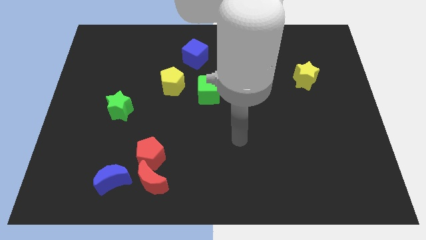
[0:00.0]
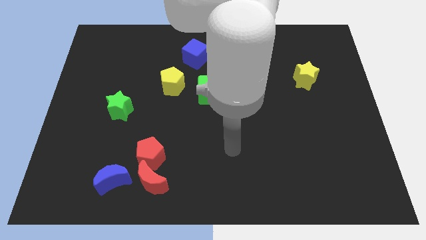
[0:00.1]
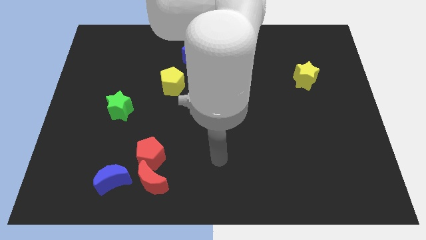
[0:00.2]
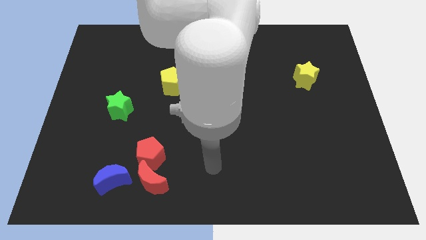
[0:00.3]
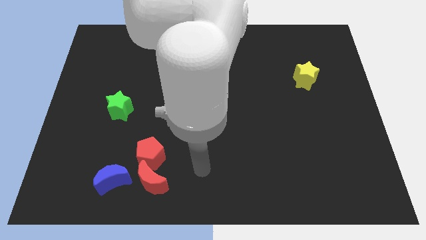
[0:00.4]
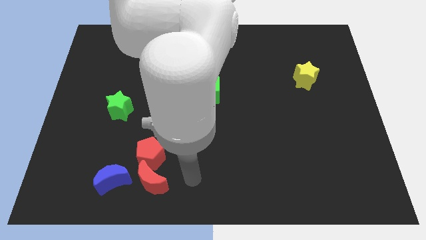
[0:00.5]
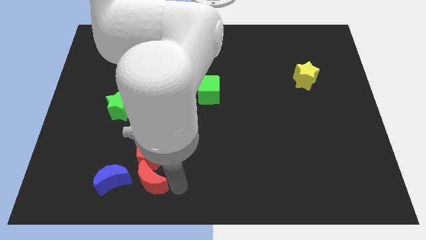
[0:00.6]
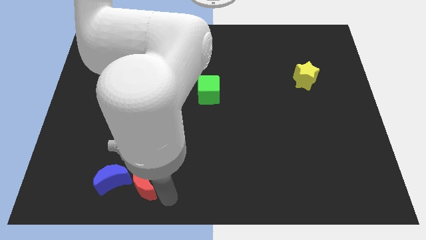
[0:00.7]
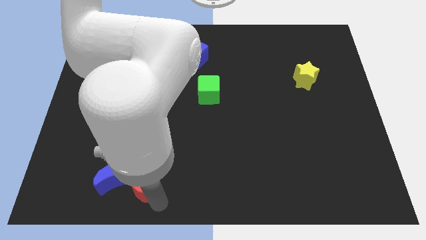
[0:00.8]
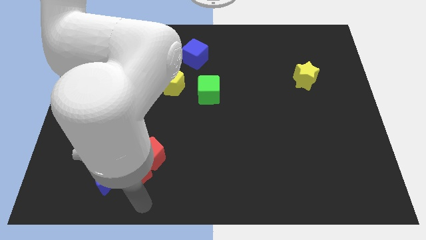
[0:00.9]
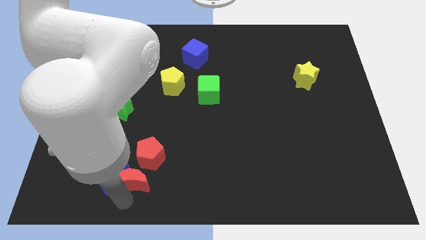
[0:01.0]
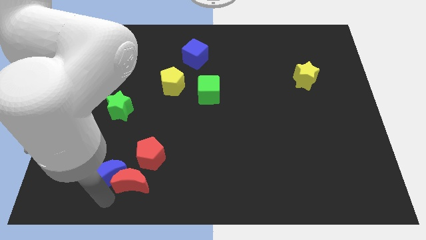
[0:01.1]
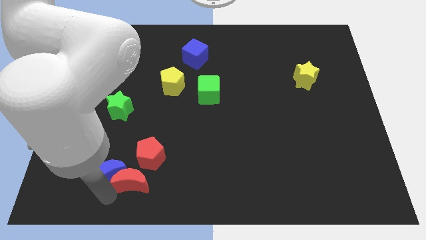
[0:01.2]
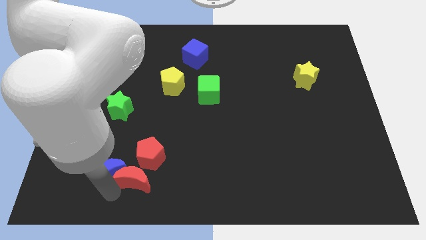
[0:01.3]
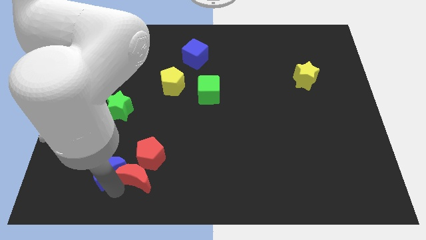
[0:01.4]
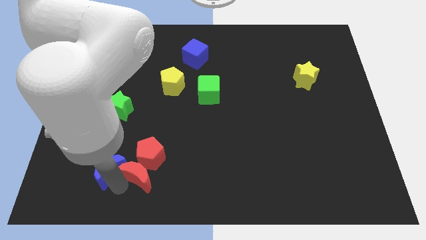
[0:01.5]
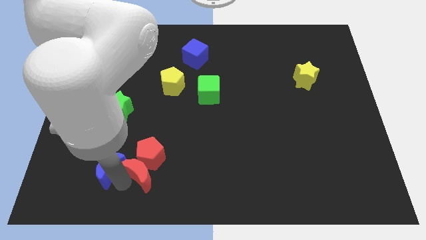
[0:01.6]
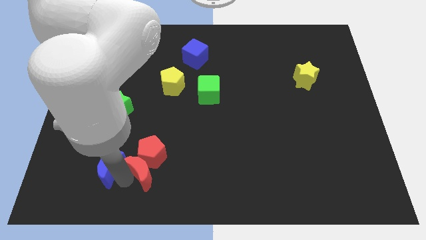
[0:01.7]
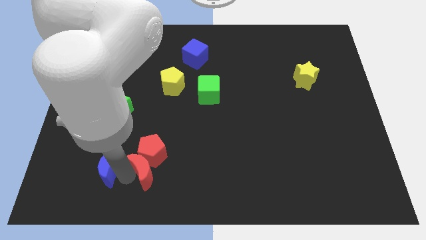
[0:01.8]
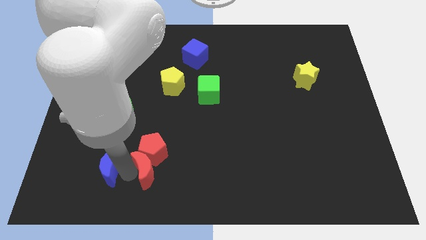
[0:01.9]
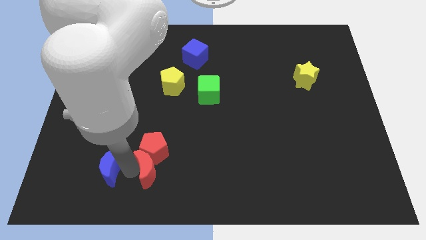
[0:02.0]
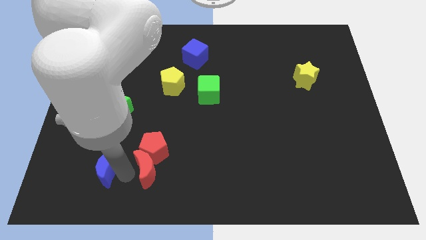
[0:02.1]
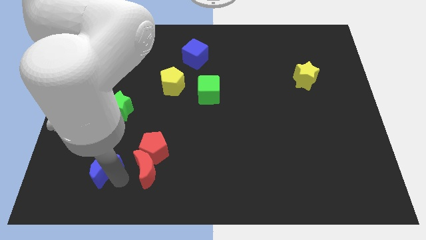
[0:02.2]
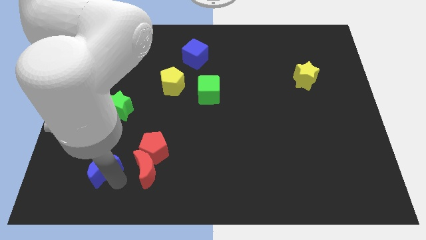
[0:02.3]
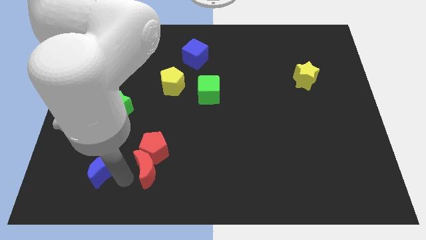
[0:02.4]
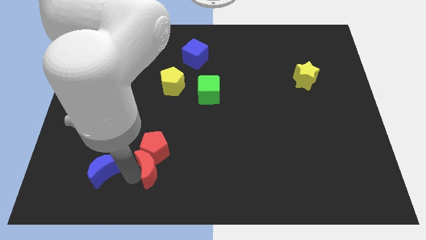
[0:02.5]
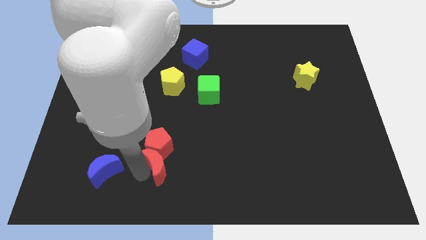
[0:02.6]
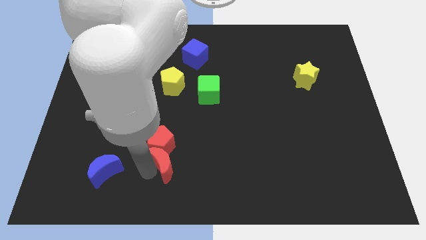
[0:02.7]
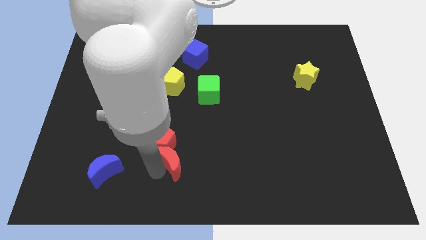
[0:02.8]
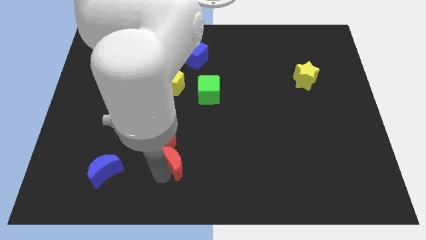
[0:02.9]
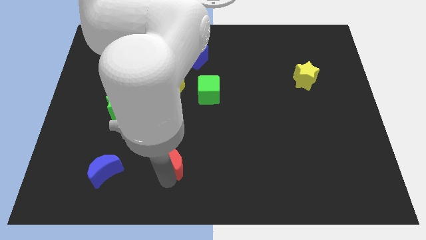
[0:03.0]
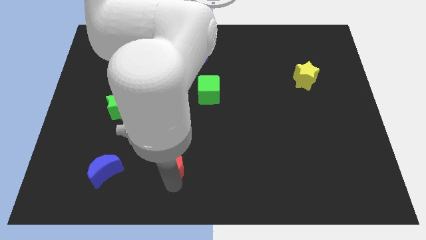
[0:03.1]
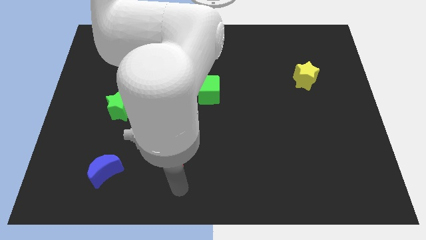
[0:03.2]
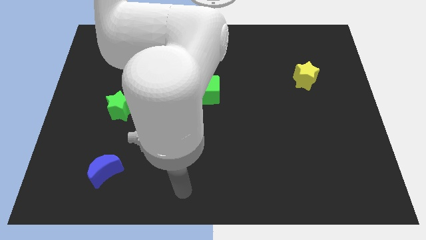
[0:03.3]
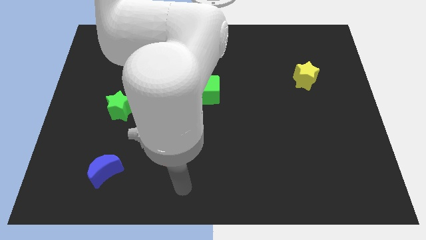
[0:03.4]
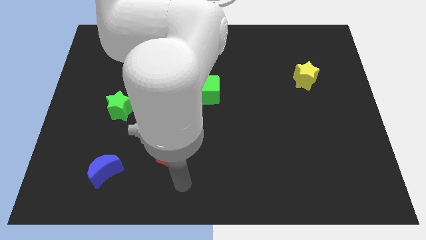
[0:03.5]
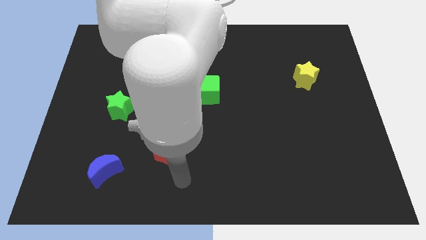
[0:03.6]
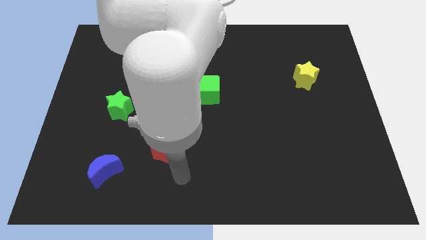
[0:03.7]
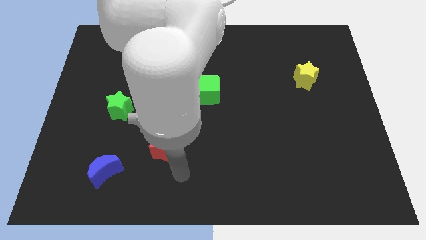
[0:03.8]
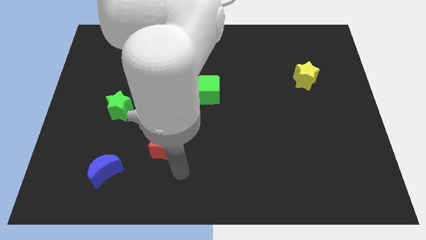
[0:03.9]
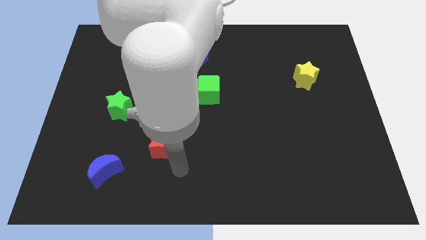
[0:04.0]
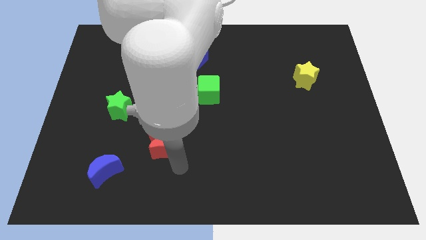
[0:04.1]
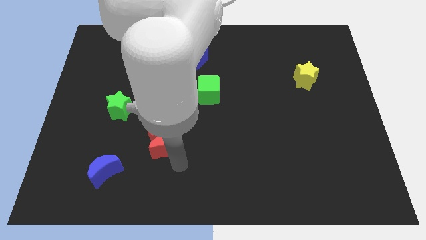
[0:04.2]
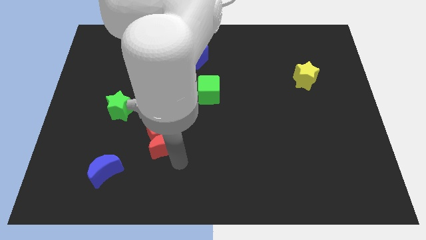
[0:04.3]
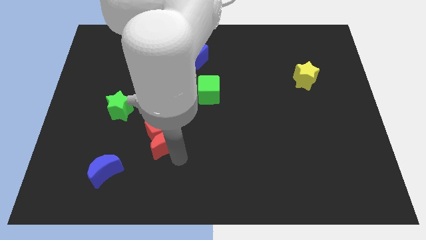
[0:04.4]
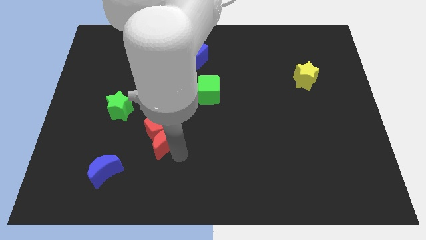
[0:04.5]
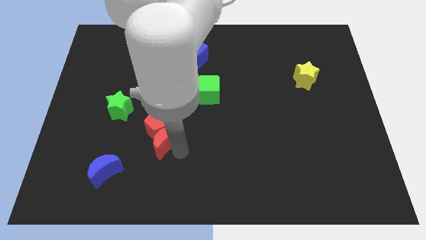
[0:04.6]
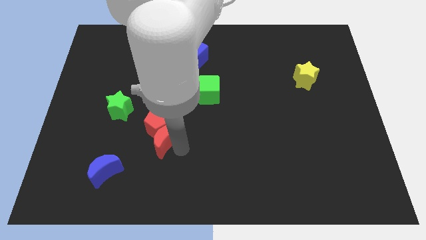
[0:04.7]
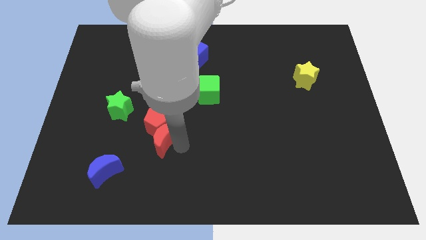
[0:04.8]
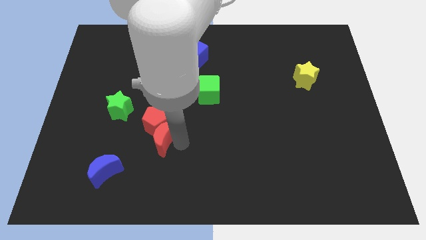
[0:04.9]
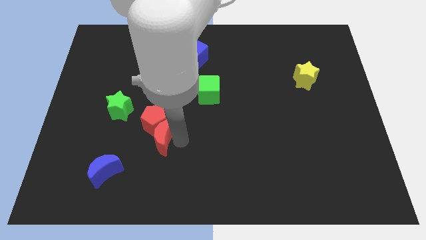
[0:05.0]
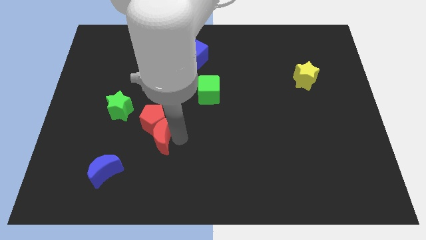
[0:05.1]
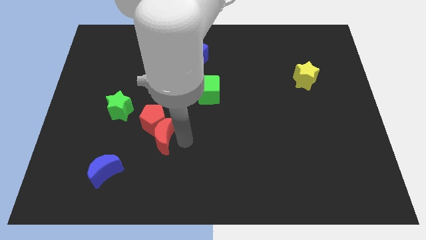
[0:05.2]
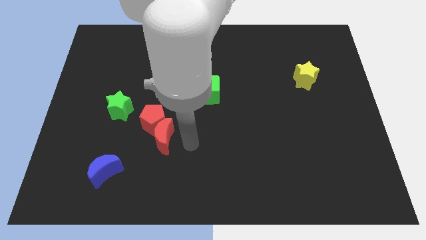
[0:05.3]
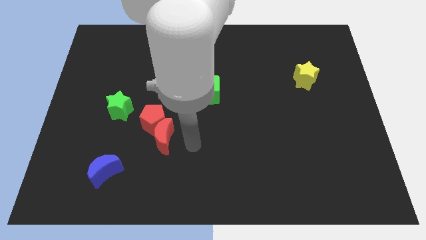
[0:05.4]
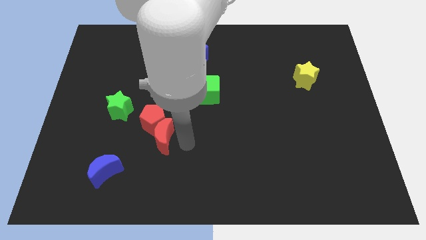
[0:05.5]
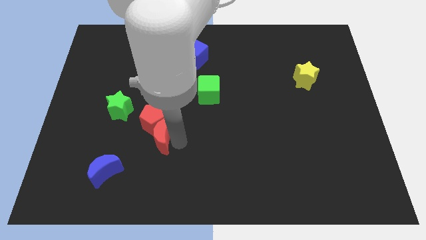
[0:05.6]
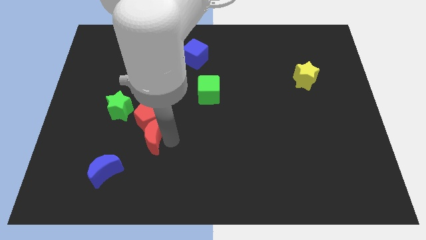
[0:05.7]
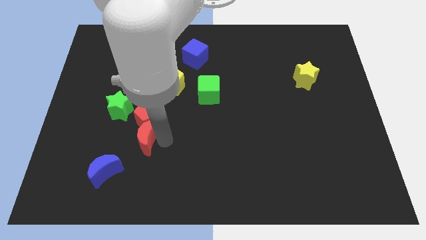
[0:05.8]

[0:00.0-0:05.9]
slightly slide the red moon diagonally upwards and to the left

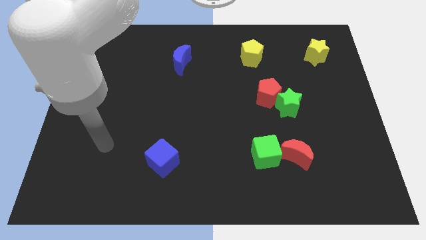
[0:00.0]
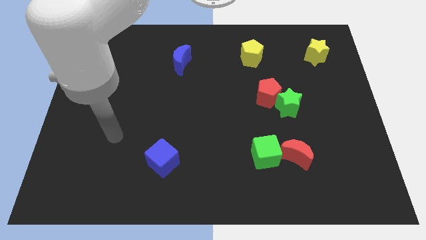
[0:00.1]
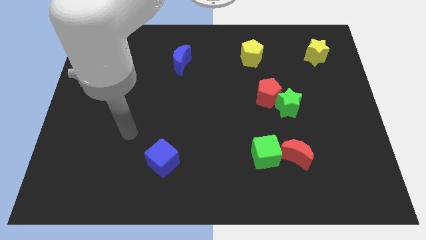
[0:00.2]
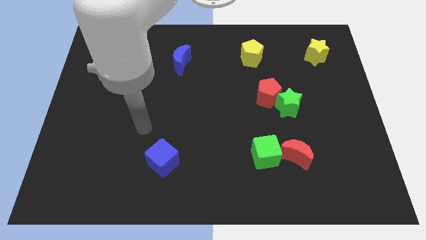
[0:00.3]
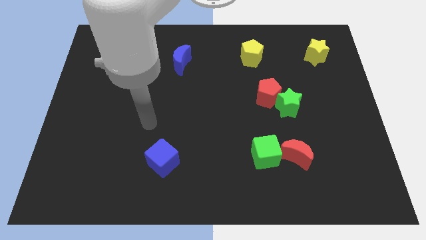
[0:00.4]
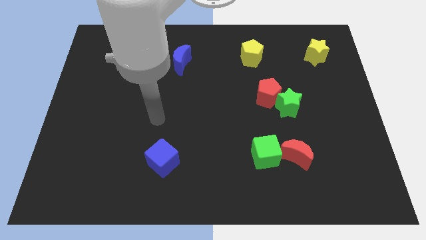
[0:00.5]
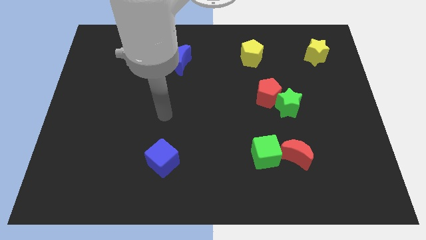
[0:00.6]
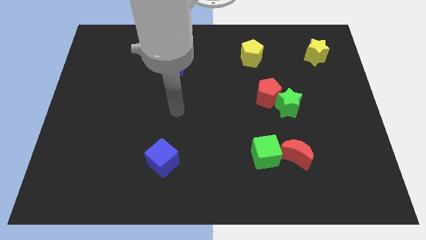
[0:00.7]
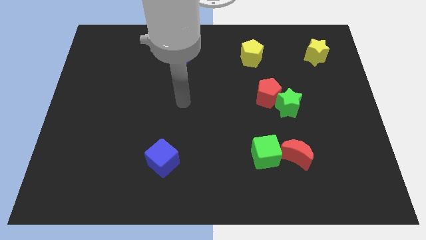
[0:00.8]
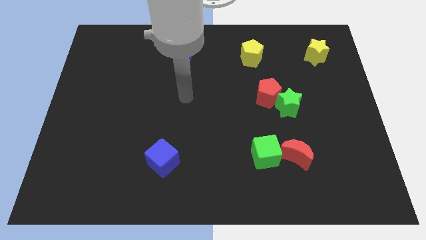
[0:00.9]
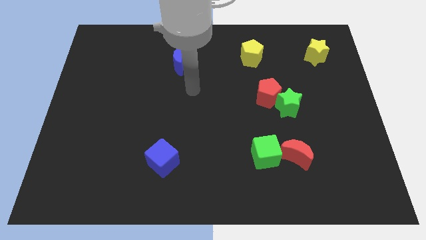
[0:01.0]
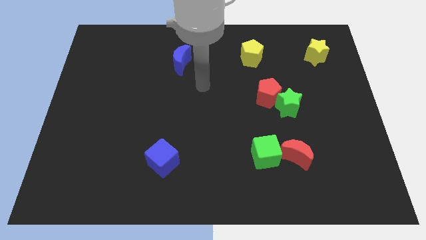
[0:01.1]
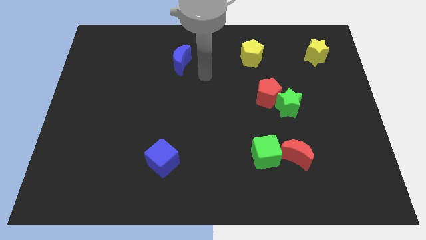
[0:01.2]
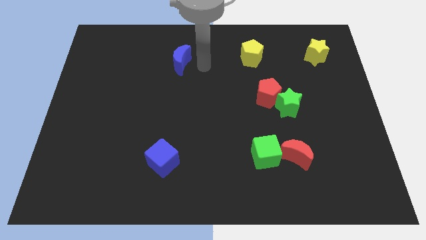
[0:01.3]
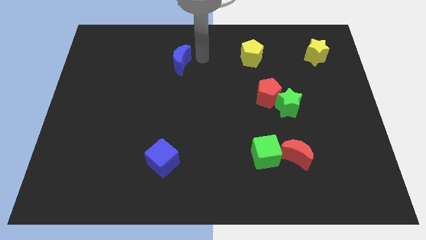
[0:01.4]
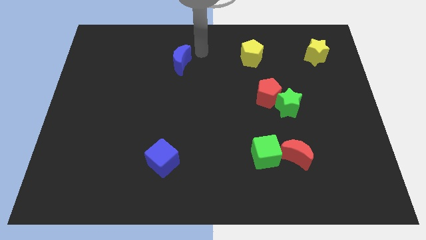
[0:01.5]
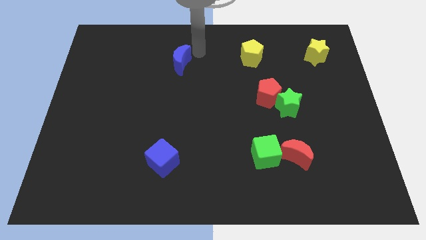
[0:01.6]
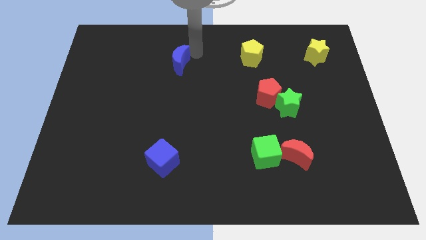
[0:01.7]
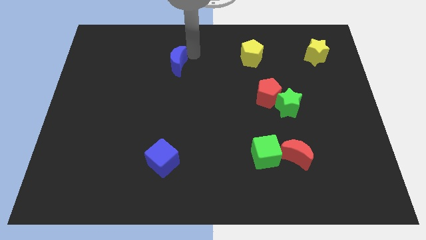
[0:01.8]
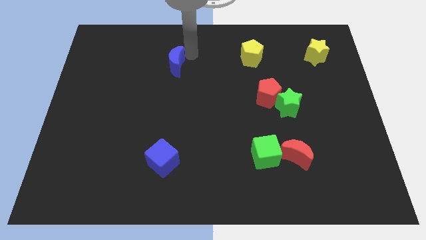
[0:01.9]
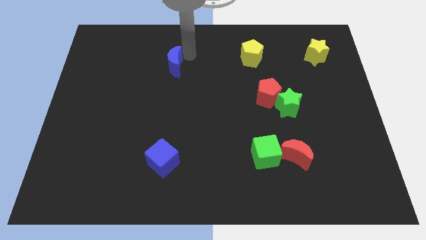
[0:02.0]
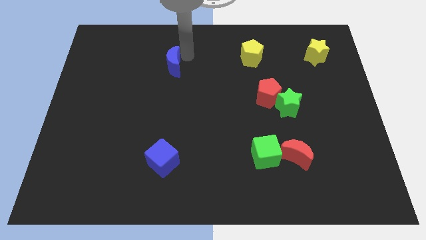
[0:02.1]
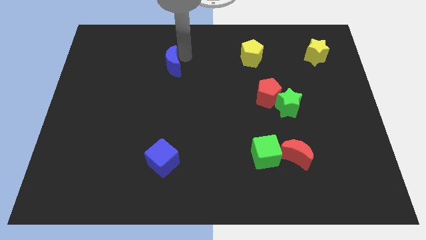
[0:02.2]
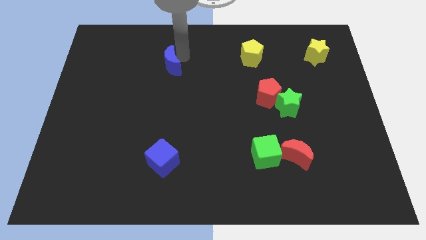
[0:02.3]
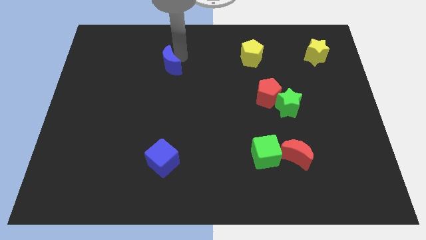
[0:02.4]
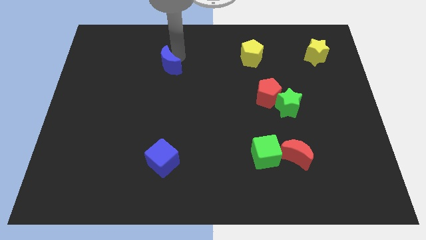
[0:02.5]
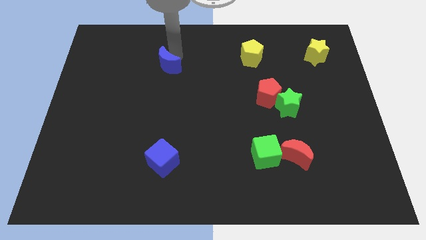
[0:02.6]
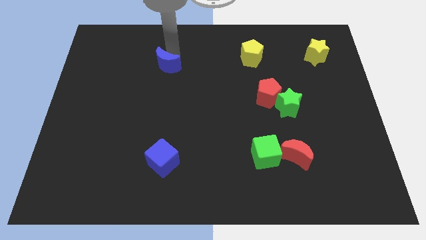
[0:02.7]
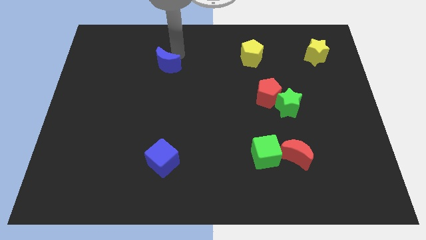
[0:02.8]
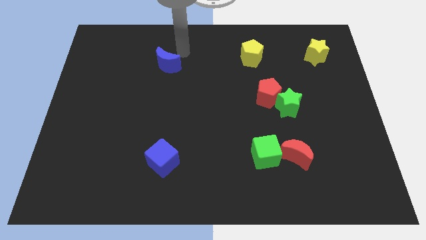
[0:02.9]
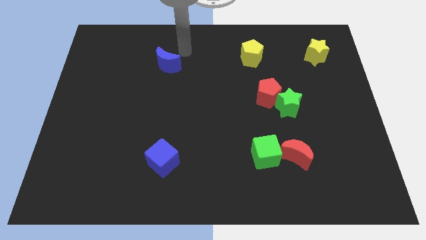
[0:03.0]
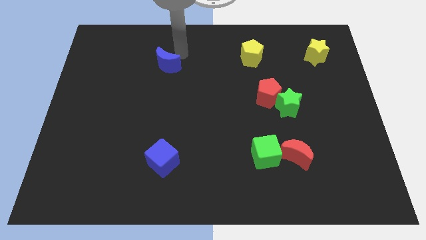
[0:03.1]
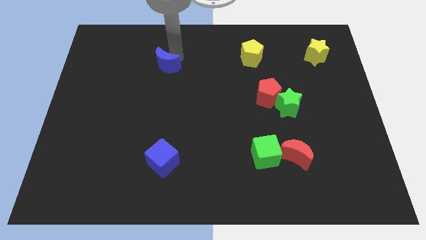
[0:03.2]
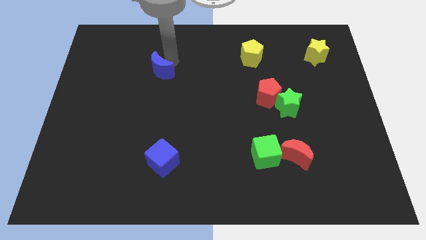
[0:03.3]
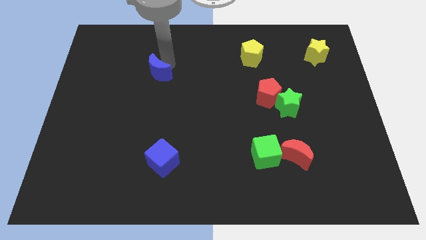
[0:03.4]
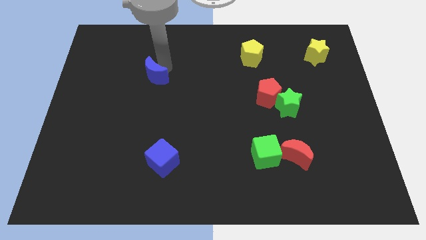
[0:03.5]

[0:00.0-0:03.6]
move the blue moon downwards and then left a bit
